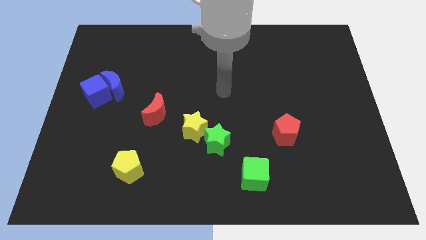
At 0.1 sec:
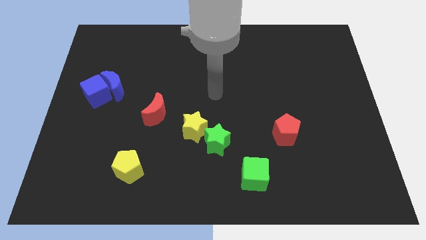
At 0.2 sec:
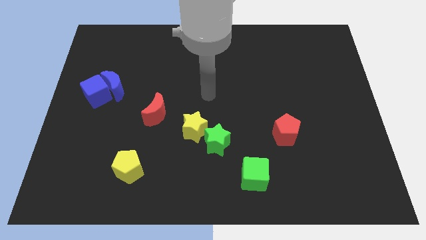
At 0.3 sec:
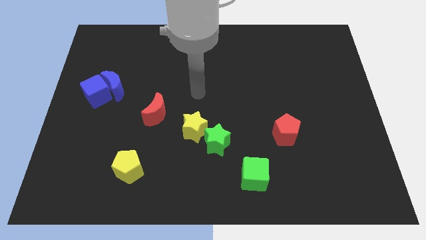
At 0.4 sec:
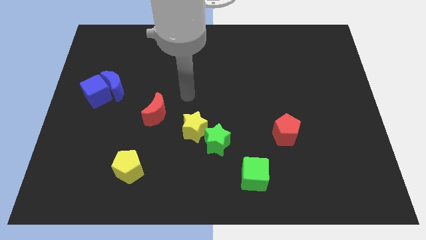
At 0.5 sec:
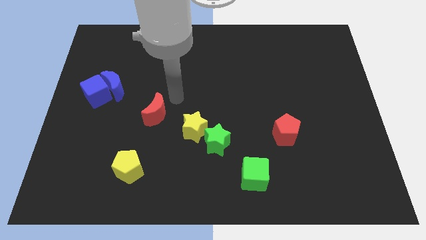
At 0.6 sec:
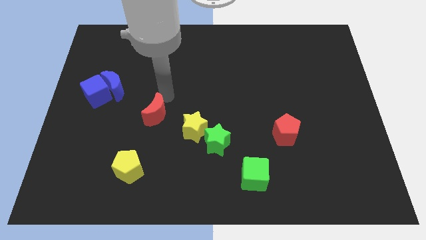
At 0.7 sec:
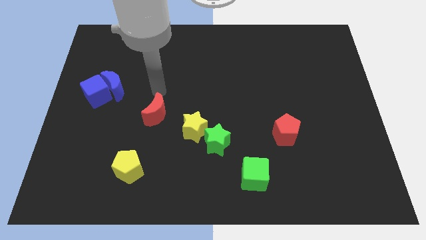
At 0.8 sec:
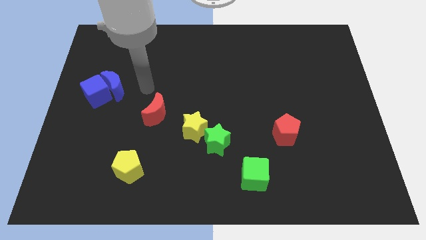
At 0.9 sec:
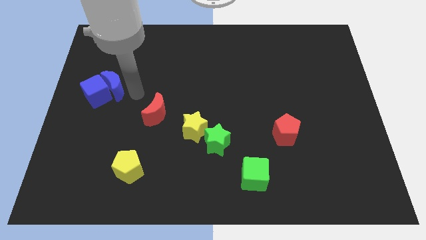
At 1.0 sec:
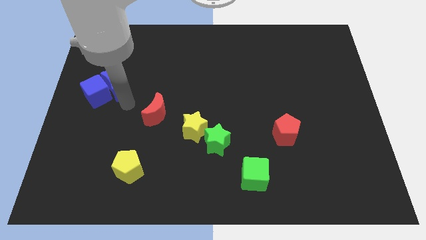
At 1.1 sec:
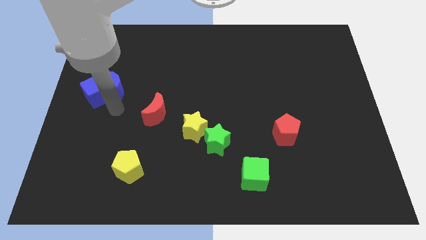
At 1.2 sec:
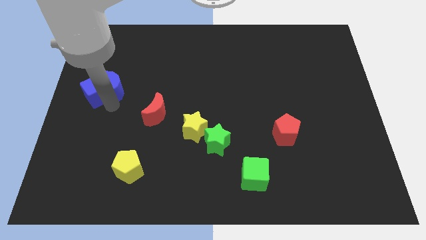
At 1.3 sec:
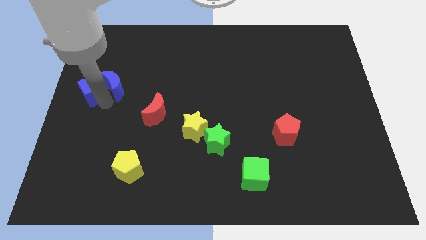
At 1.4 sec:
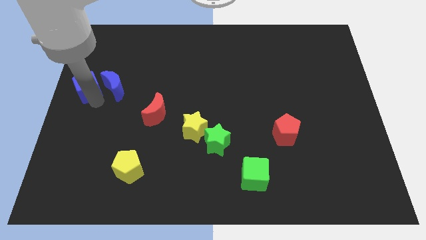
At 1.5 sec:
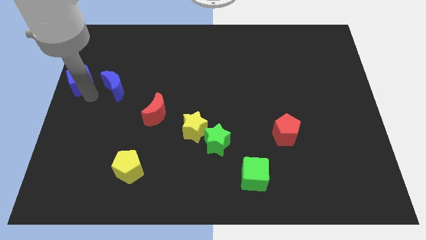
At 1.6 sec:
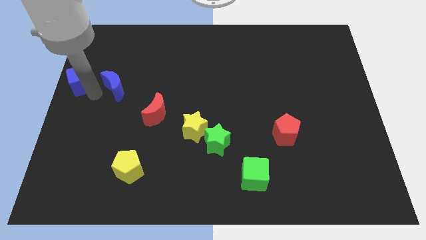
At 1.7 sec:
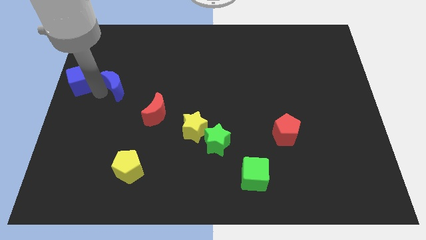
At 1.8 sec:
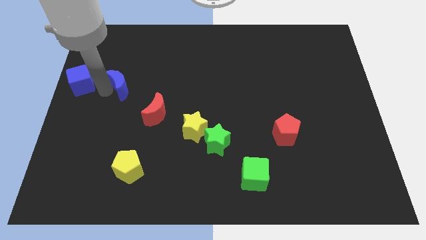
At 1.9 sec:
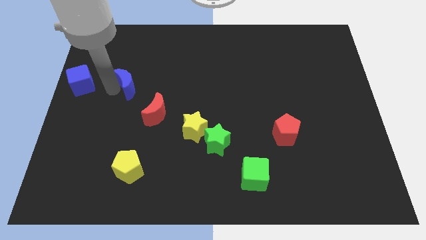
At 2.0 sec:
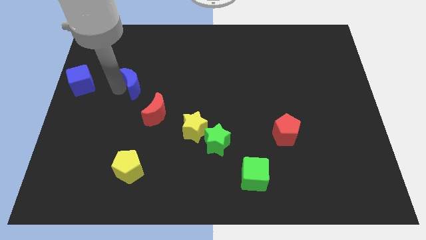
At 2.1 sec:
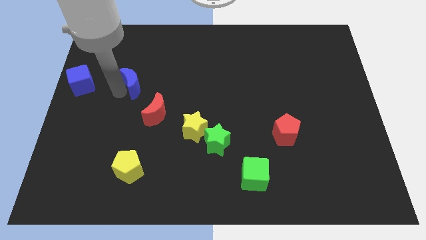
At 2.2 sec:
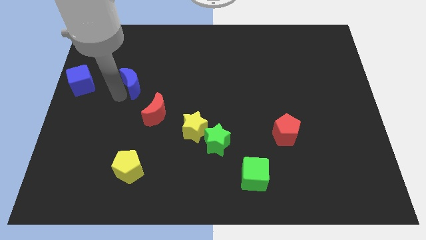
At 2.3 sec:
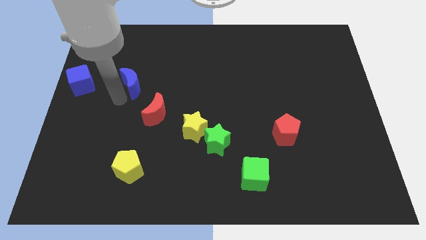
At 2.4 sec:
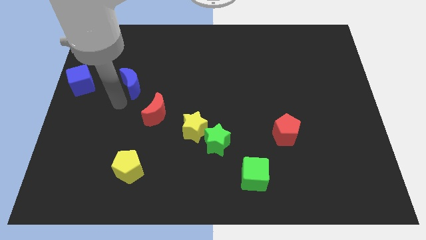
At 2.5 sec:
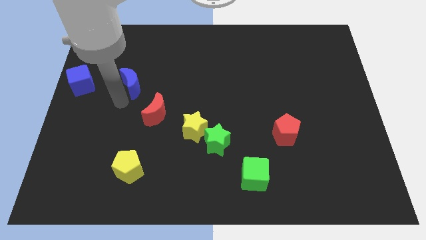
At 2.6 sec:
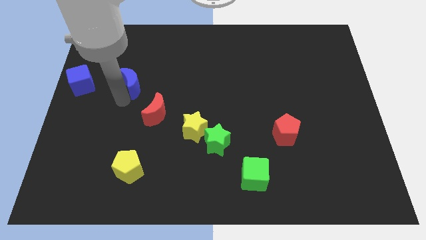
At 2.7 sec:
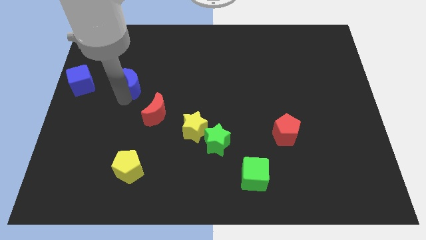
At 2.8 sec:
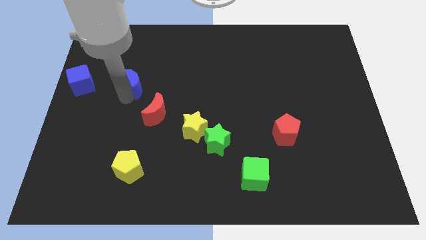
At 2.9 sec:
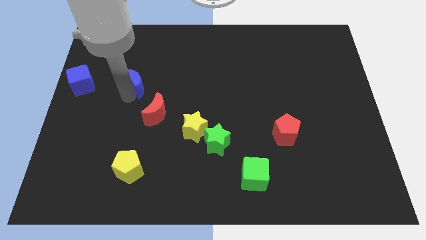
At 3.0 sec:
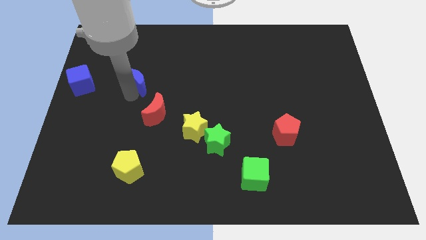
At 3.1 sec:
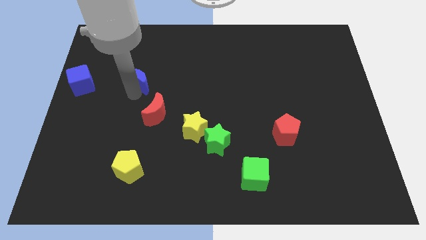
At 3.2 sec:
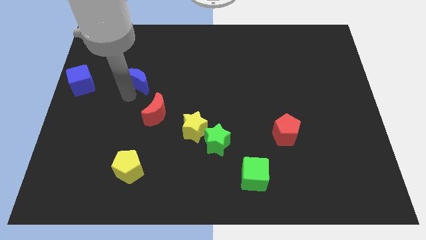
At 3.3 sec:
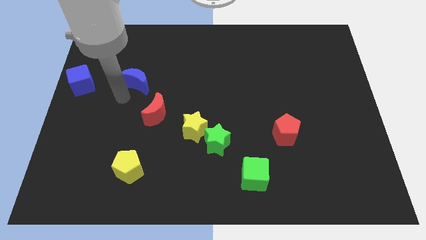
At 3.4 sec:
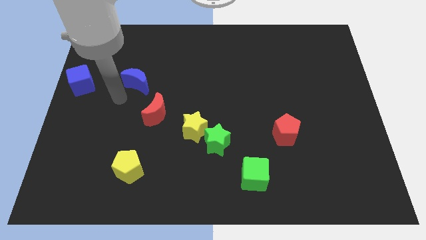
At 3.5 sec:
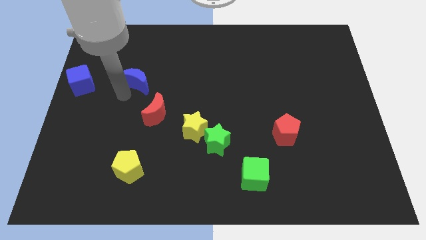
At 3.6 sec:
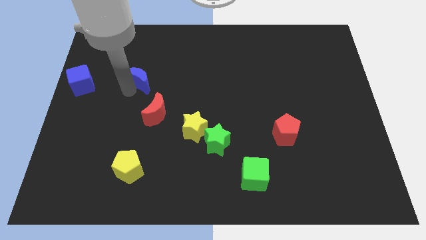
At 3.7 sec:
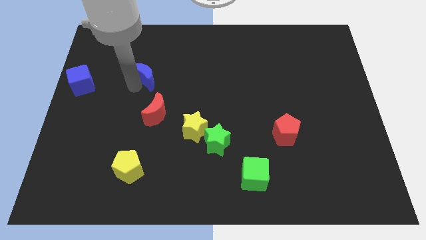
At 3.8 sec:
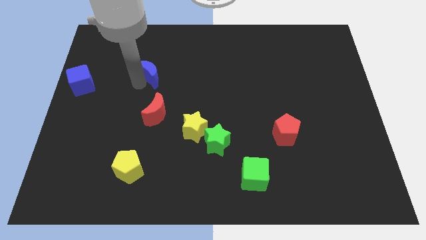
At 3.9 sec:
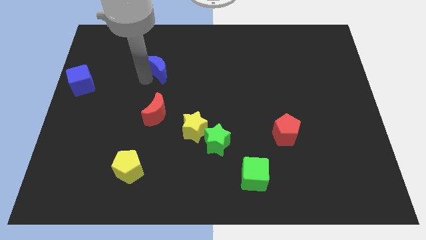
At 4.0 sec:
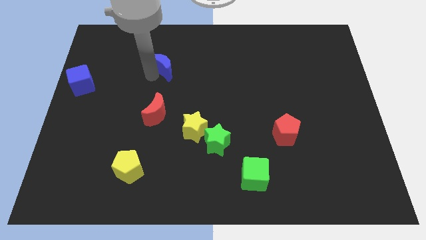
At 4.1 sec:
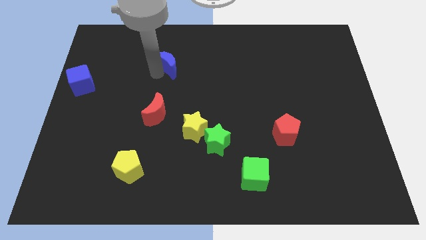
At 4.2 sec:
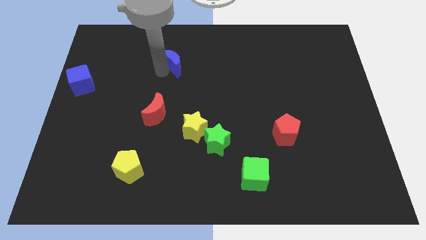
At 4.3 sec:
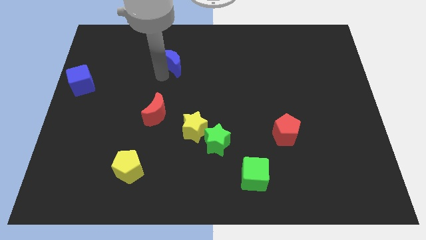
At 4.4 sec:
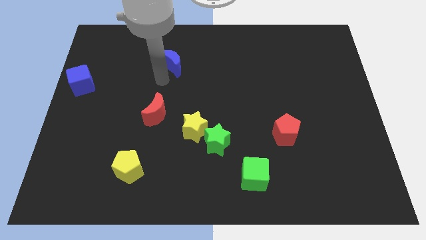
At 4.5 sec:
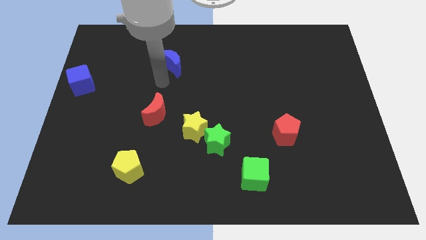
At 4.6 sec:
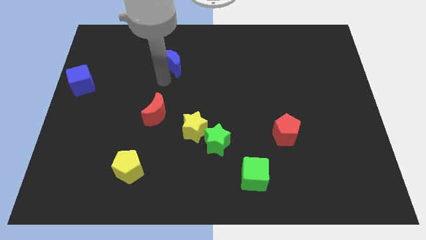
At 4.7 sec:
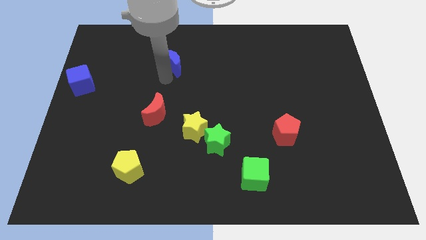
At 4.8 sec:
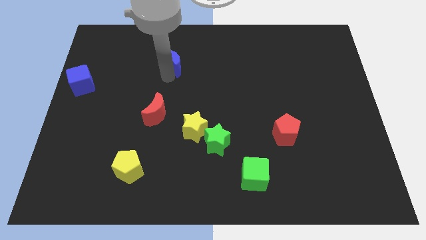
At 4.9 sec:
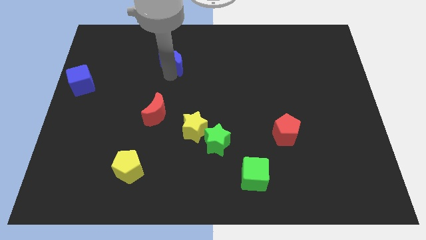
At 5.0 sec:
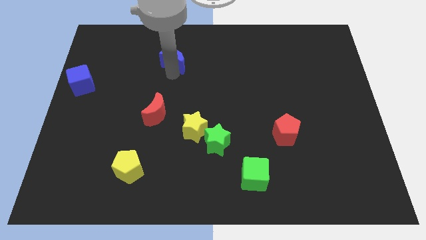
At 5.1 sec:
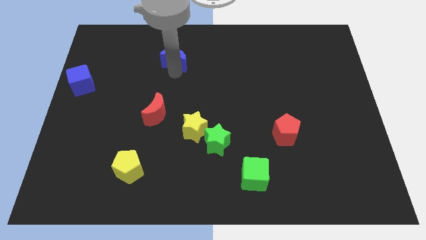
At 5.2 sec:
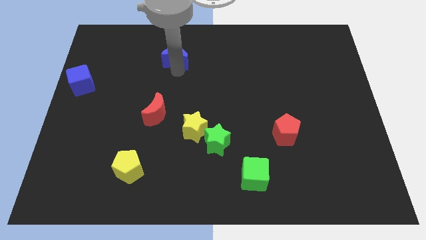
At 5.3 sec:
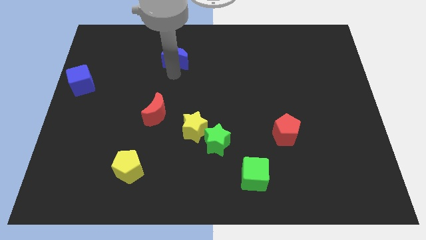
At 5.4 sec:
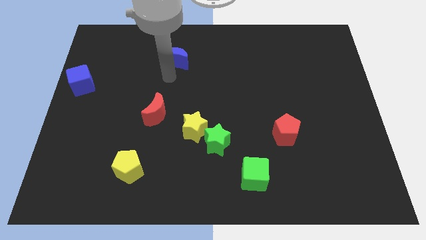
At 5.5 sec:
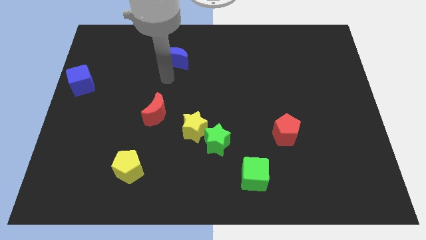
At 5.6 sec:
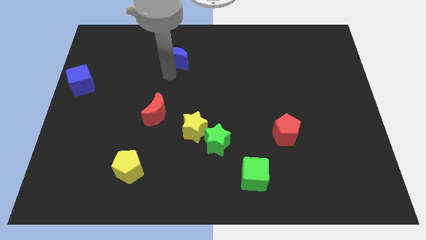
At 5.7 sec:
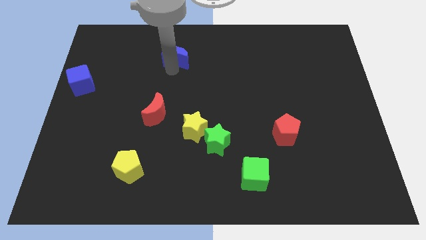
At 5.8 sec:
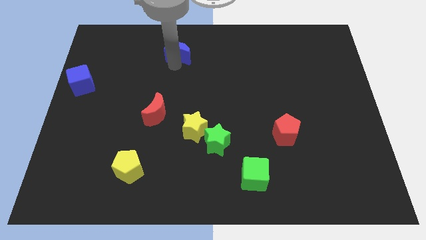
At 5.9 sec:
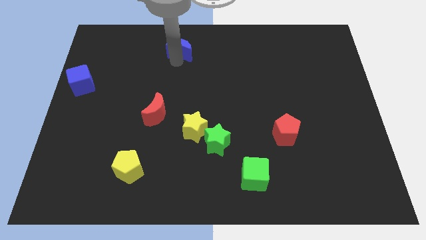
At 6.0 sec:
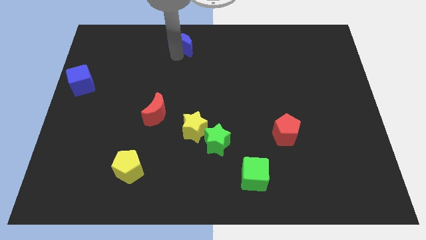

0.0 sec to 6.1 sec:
slide the blue moon to the top side

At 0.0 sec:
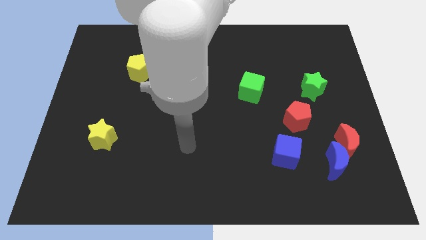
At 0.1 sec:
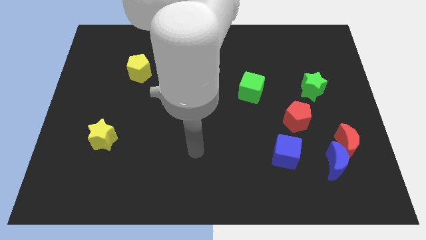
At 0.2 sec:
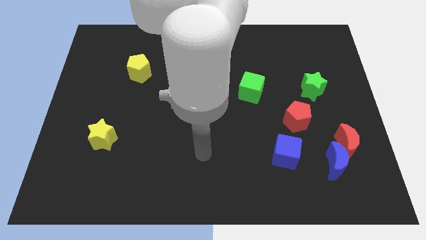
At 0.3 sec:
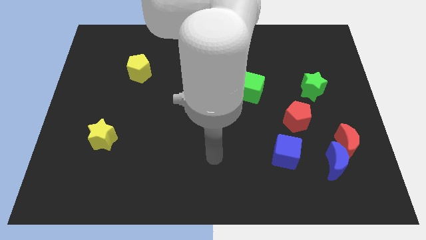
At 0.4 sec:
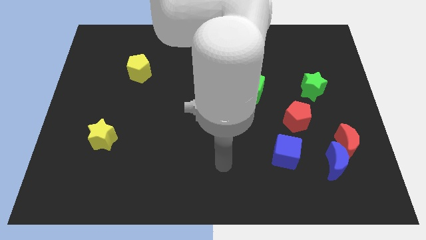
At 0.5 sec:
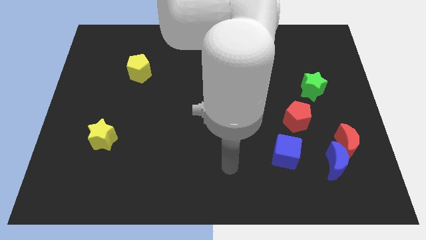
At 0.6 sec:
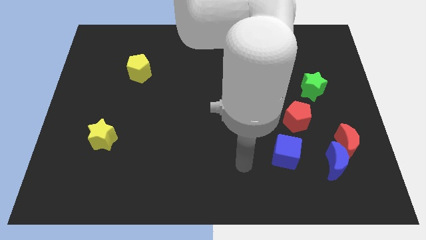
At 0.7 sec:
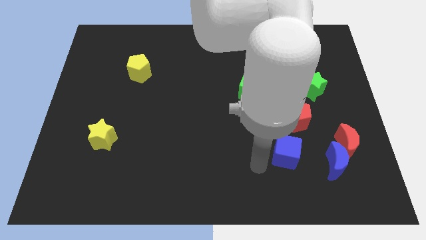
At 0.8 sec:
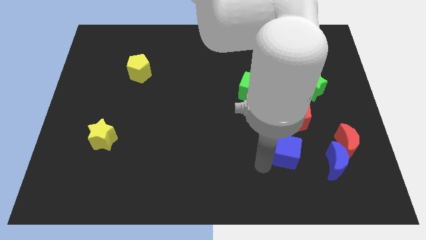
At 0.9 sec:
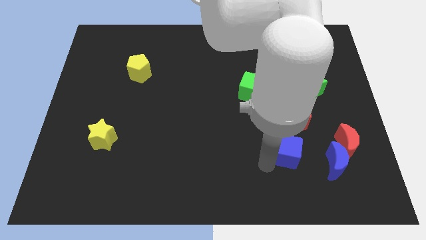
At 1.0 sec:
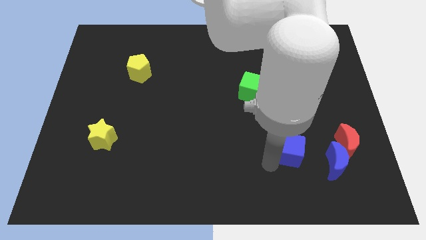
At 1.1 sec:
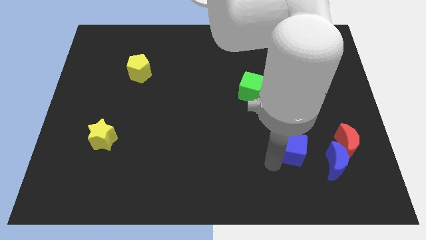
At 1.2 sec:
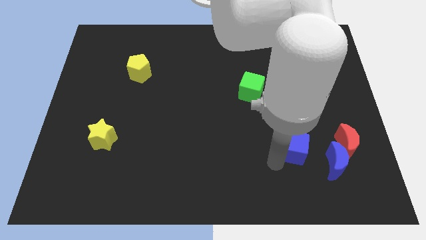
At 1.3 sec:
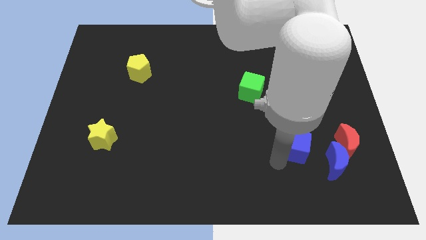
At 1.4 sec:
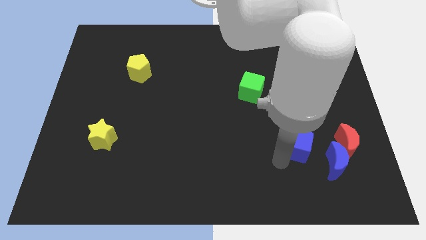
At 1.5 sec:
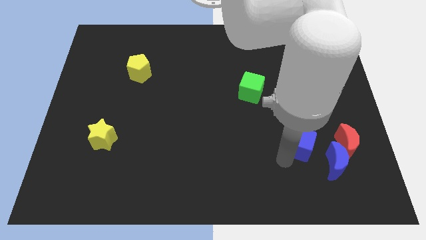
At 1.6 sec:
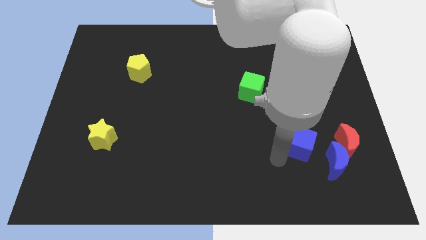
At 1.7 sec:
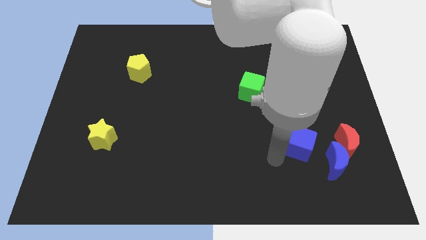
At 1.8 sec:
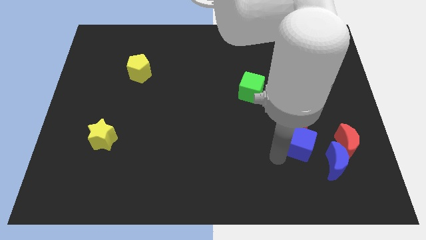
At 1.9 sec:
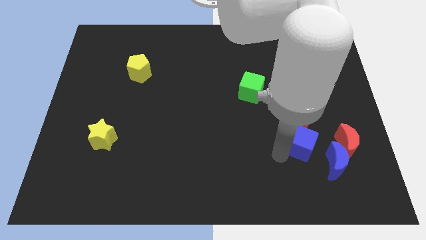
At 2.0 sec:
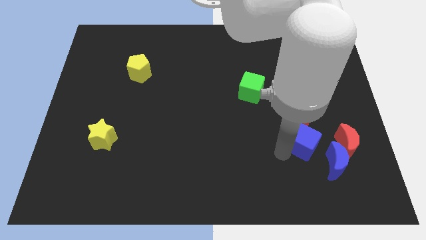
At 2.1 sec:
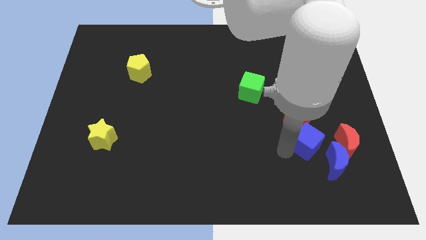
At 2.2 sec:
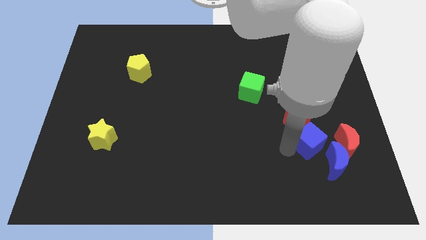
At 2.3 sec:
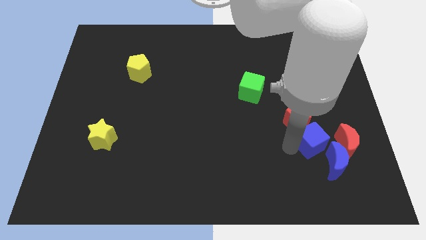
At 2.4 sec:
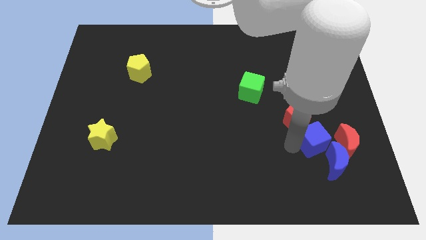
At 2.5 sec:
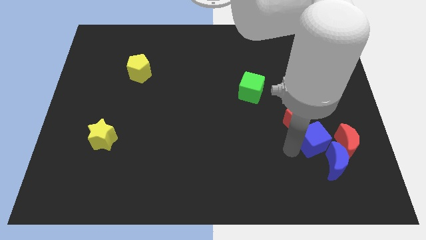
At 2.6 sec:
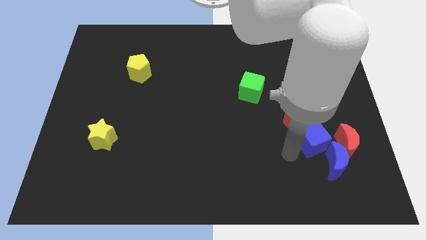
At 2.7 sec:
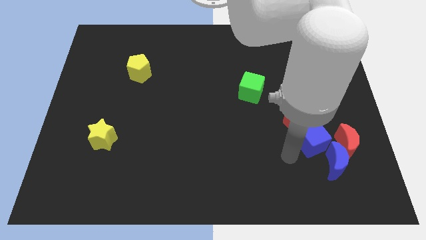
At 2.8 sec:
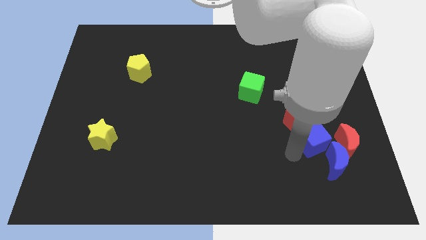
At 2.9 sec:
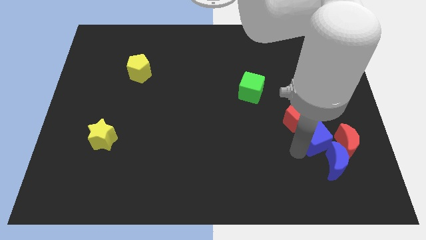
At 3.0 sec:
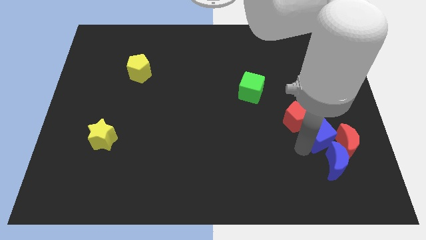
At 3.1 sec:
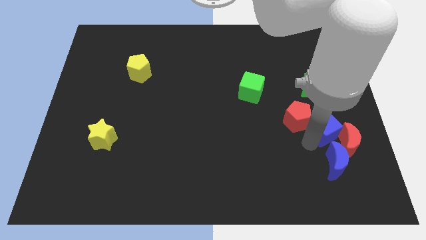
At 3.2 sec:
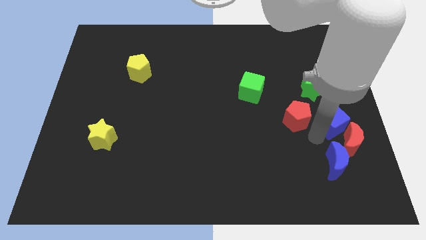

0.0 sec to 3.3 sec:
slide the blue cube to the center right
